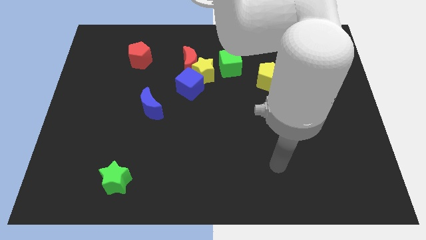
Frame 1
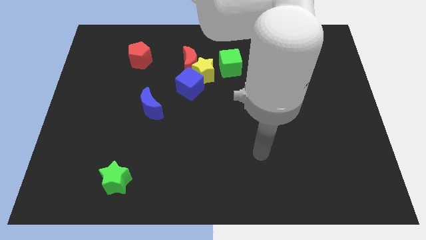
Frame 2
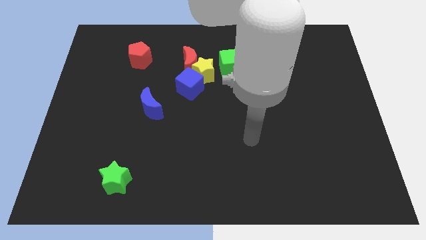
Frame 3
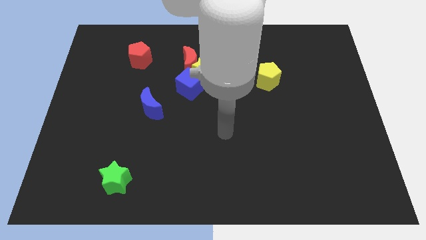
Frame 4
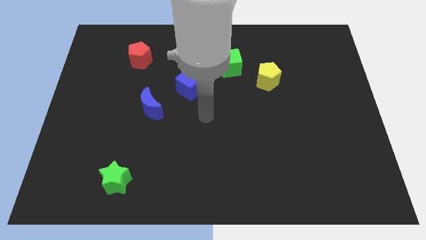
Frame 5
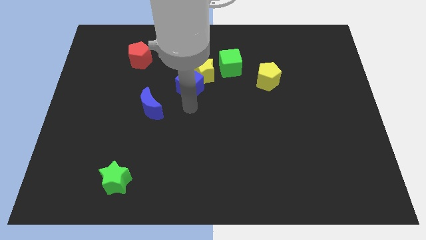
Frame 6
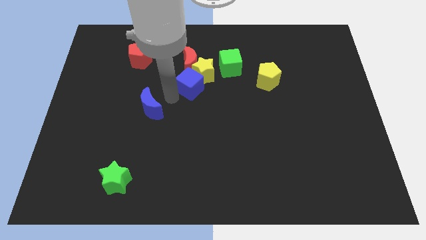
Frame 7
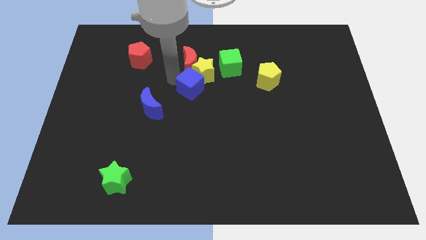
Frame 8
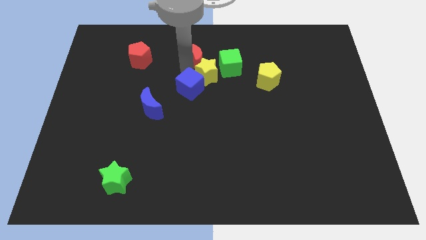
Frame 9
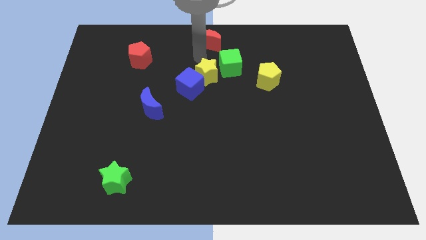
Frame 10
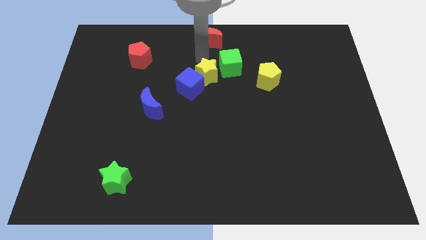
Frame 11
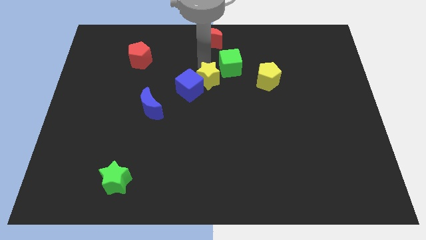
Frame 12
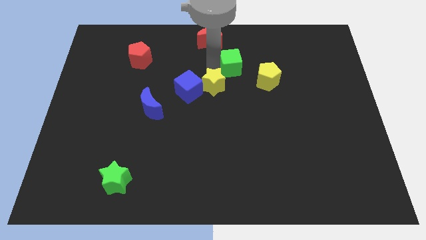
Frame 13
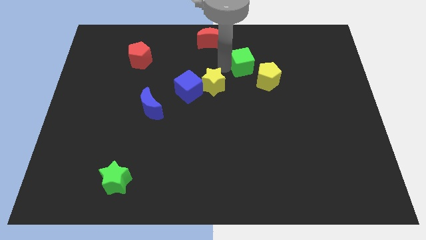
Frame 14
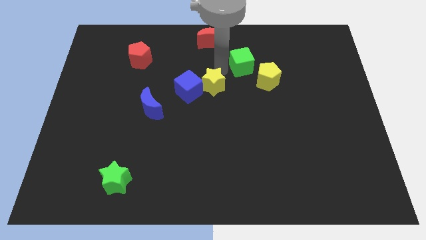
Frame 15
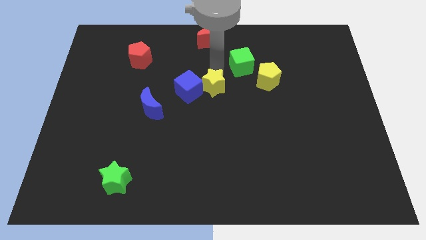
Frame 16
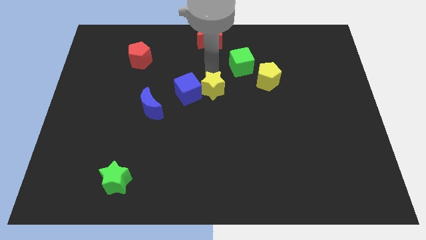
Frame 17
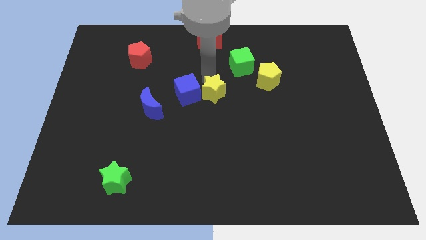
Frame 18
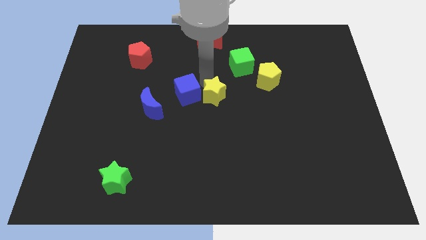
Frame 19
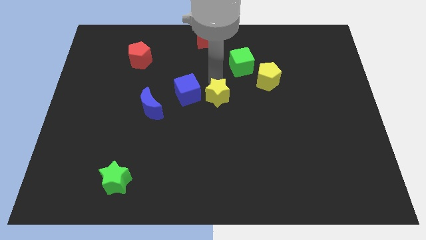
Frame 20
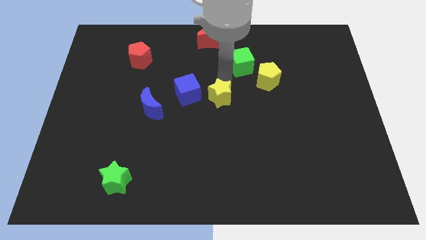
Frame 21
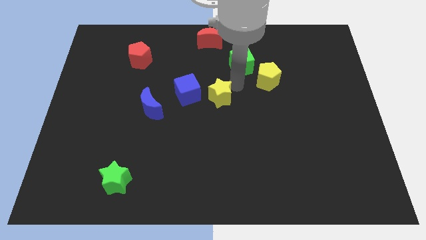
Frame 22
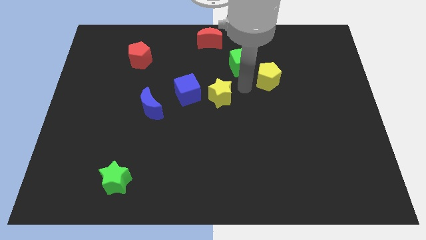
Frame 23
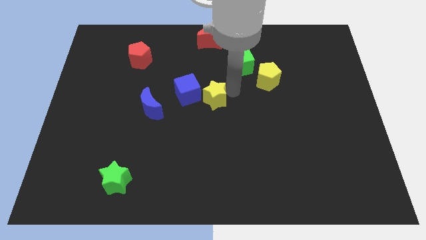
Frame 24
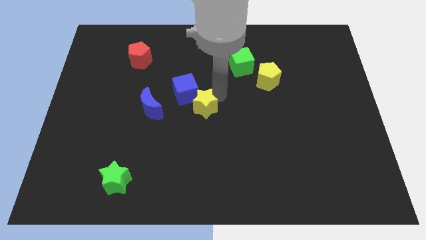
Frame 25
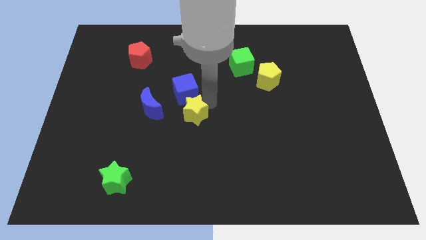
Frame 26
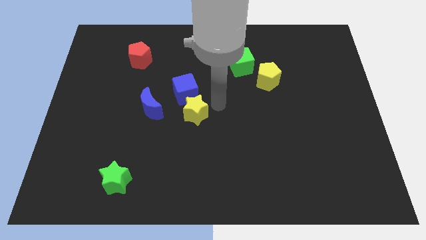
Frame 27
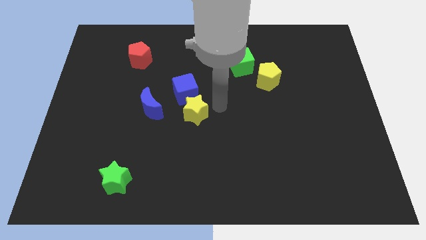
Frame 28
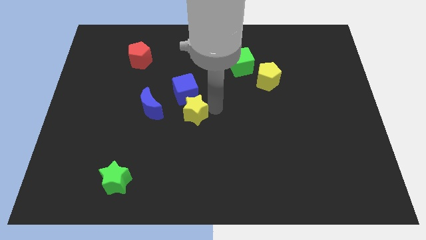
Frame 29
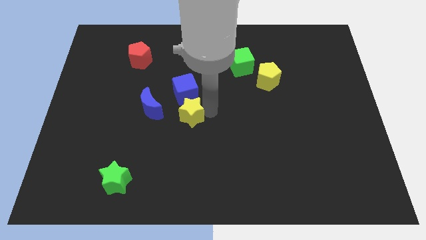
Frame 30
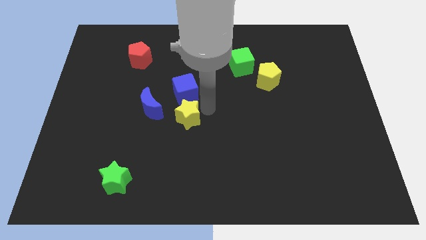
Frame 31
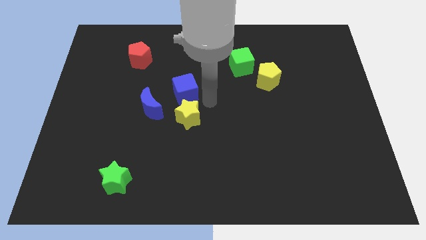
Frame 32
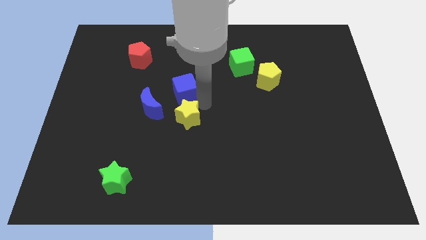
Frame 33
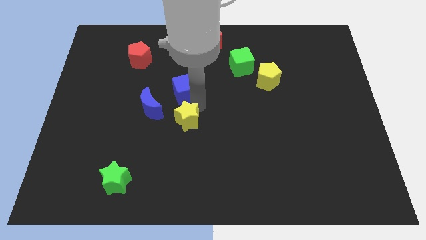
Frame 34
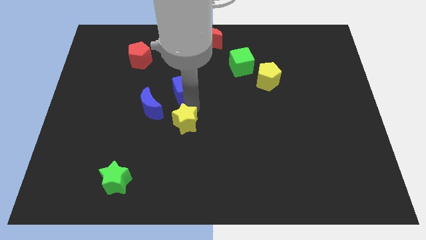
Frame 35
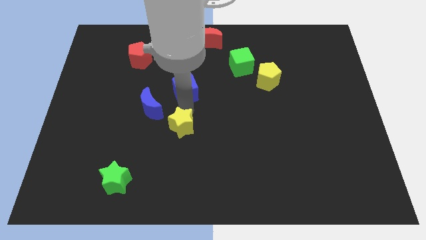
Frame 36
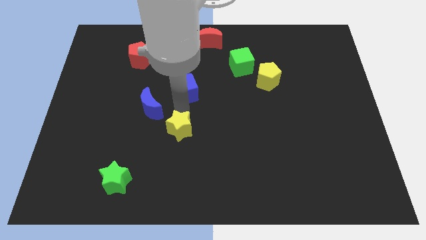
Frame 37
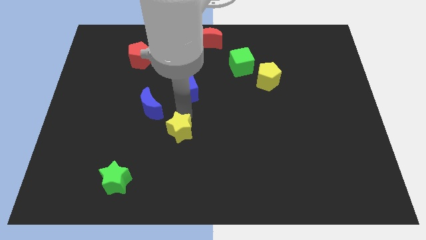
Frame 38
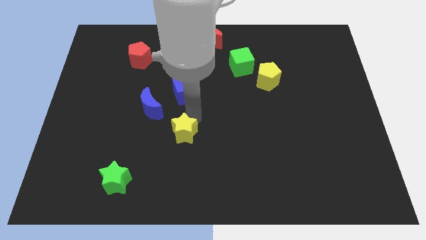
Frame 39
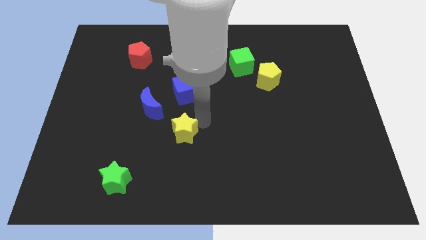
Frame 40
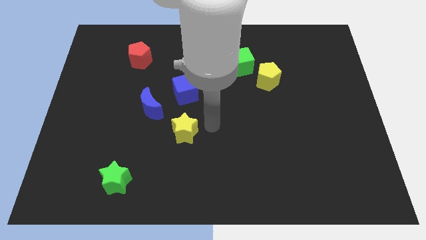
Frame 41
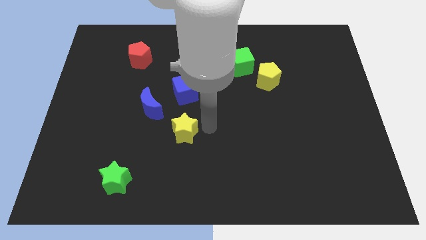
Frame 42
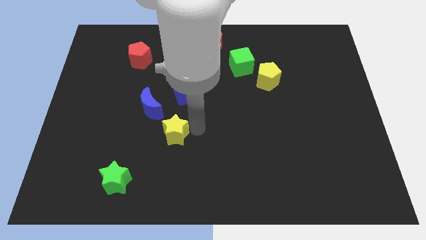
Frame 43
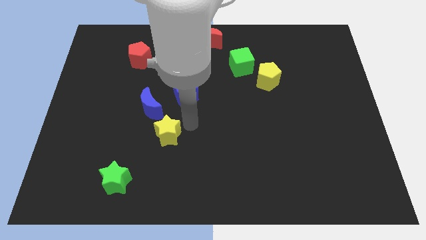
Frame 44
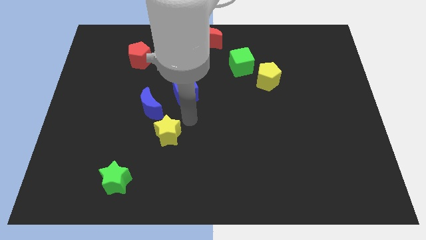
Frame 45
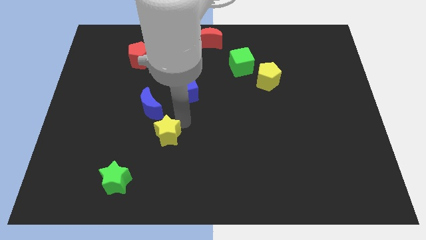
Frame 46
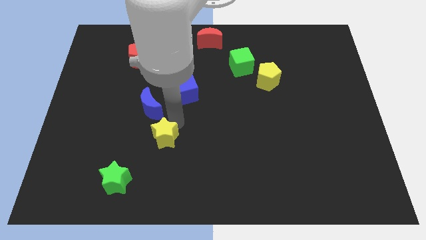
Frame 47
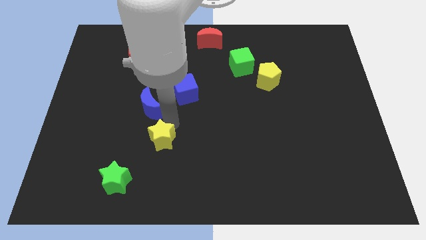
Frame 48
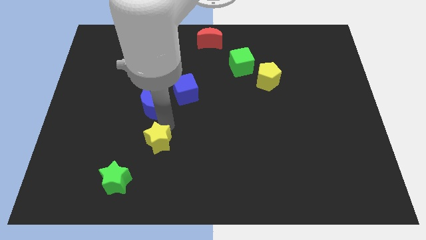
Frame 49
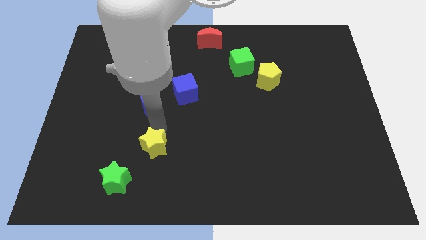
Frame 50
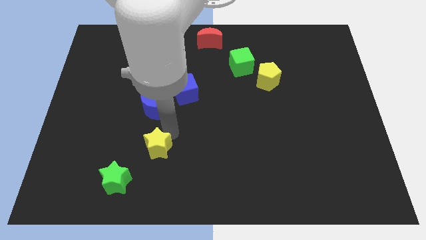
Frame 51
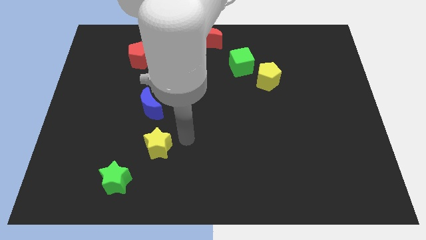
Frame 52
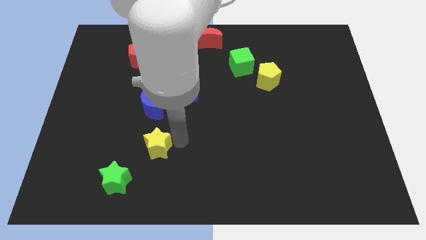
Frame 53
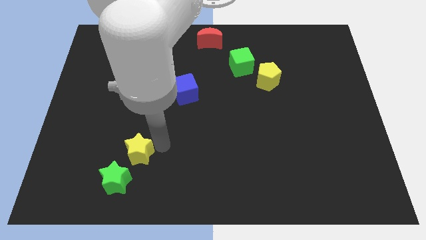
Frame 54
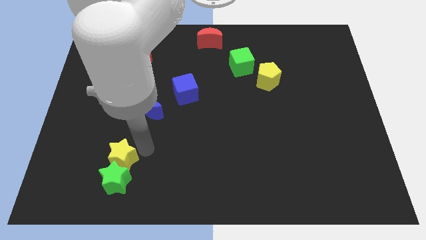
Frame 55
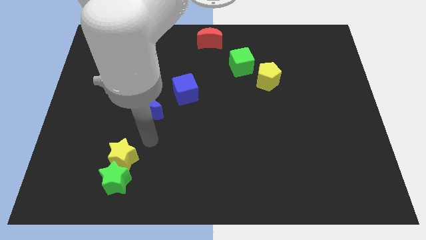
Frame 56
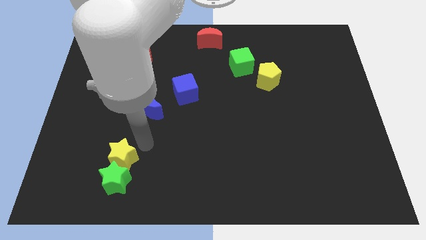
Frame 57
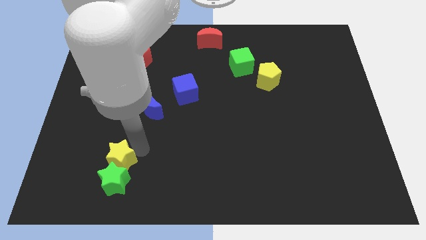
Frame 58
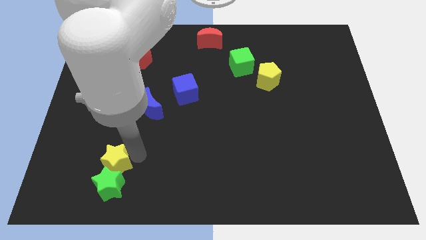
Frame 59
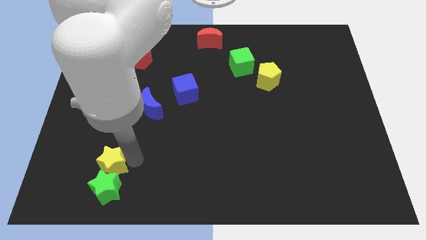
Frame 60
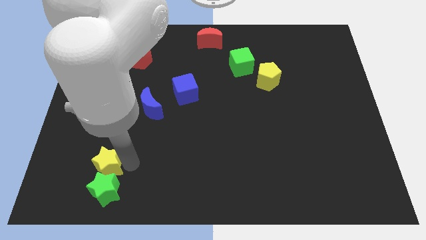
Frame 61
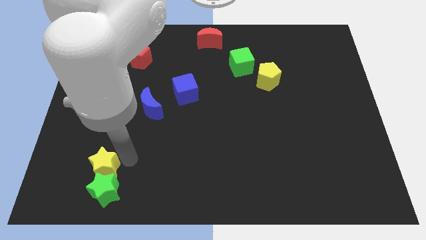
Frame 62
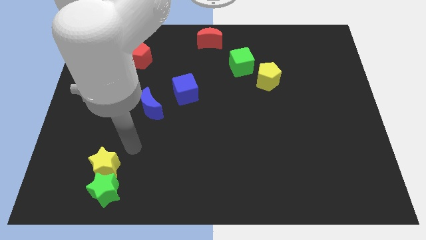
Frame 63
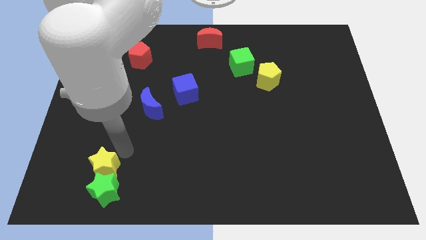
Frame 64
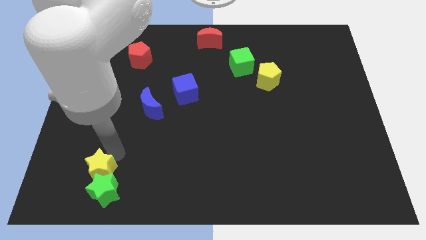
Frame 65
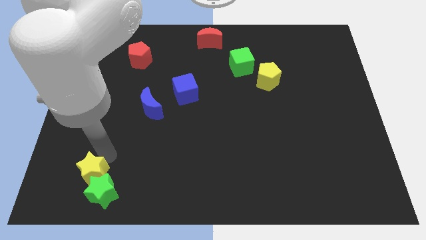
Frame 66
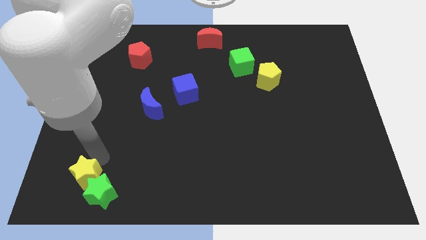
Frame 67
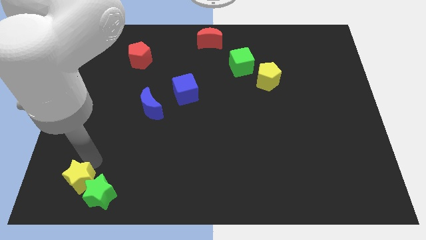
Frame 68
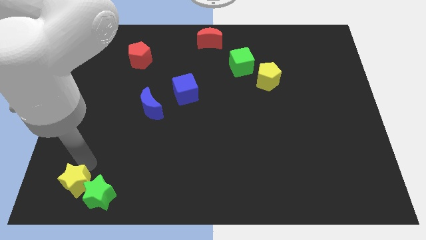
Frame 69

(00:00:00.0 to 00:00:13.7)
push the yellow star to the bottom left of the board

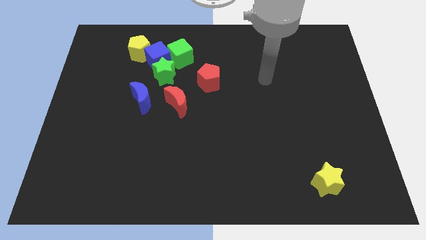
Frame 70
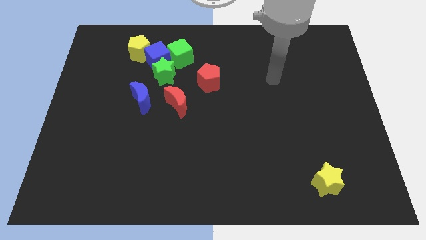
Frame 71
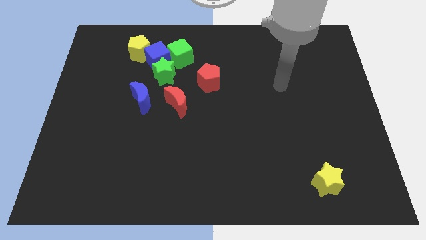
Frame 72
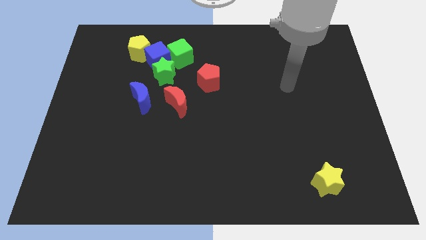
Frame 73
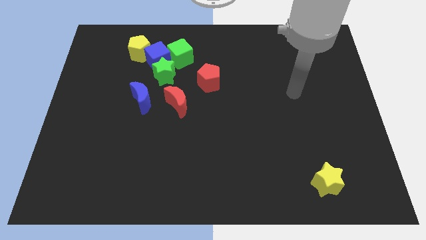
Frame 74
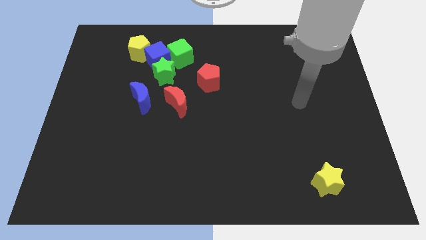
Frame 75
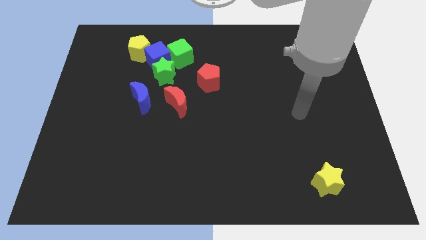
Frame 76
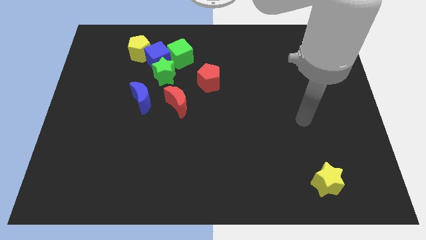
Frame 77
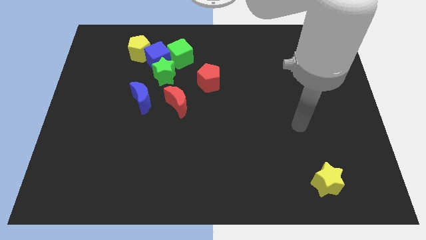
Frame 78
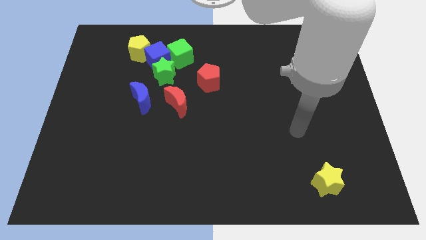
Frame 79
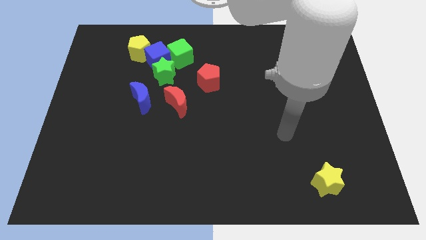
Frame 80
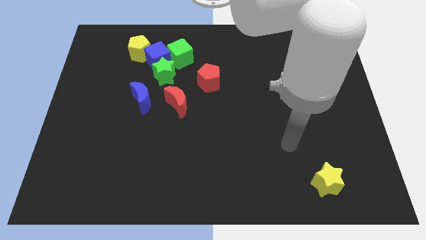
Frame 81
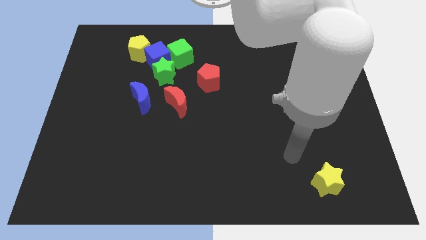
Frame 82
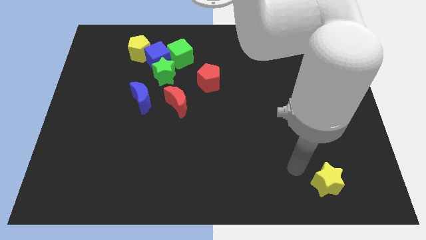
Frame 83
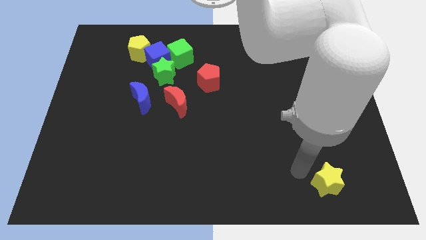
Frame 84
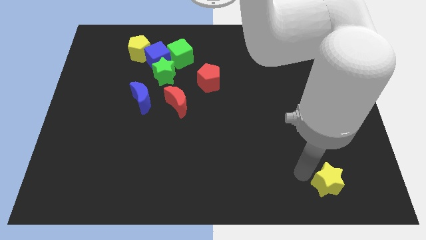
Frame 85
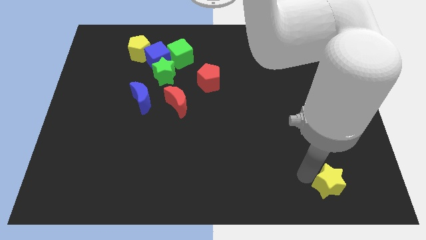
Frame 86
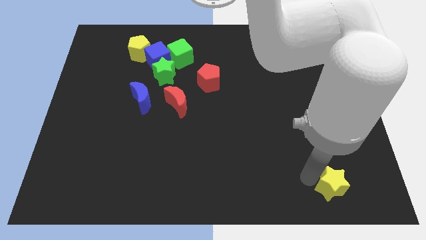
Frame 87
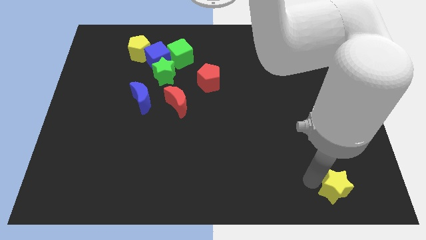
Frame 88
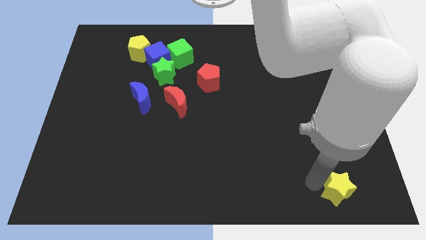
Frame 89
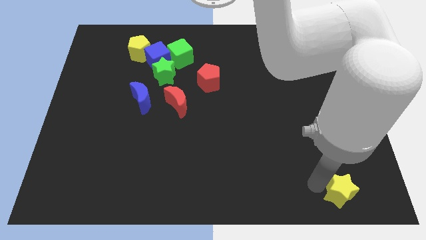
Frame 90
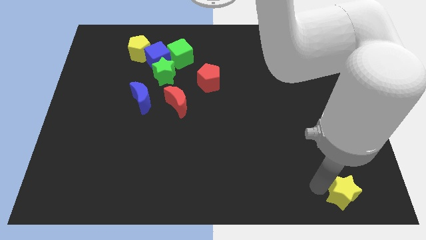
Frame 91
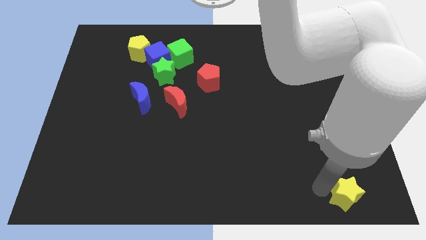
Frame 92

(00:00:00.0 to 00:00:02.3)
move the yellow star to the bottom right
